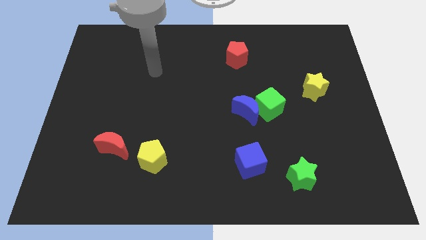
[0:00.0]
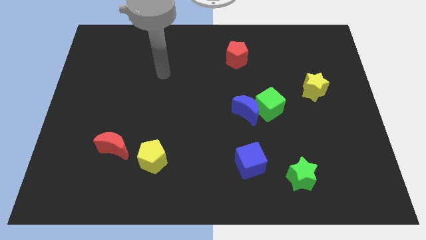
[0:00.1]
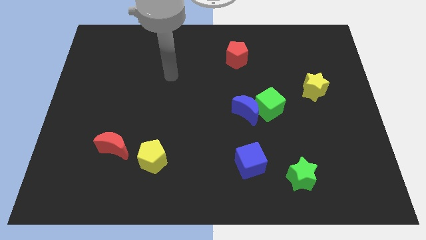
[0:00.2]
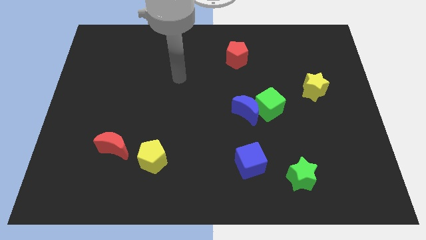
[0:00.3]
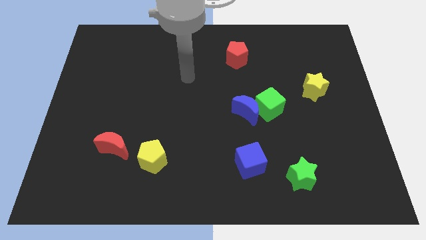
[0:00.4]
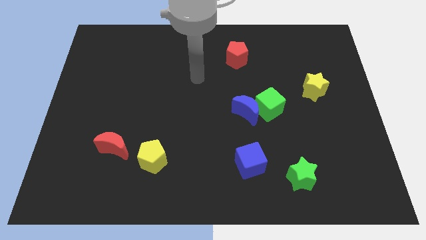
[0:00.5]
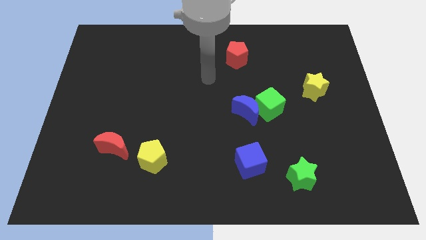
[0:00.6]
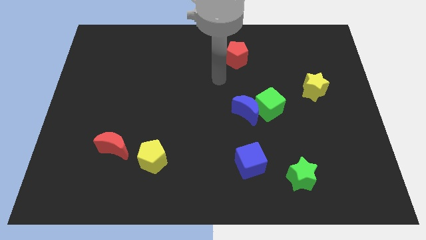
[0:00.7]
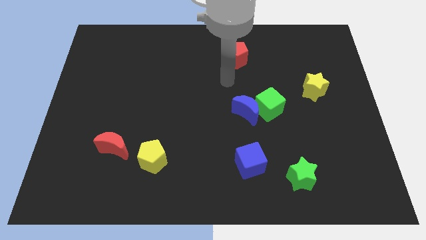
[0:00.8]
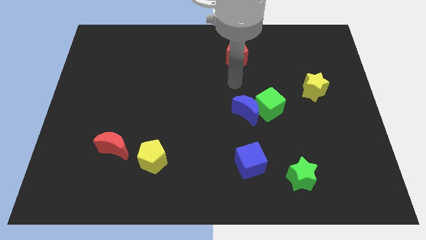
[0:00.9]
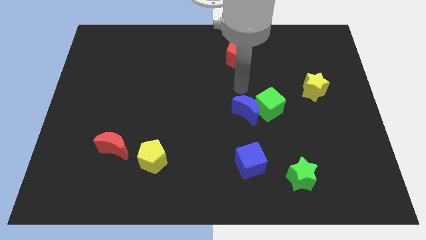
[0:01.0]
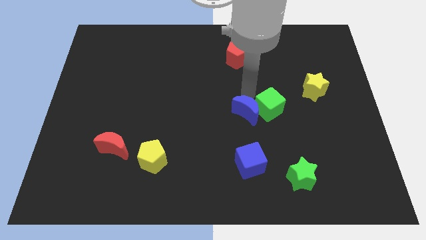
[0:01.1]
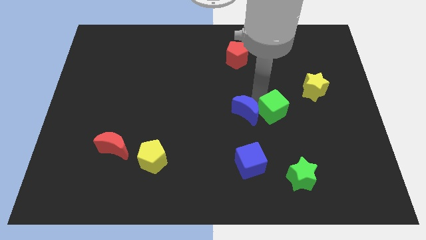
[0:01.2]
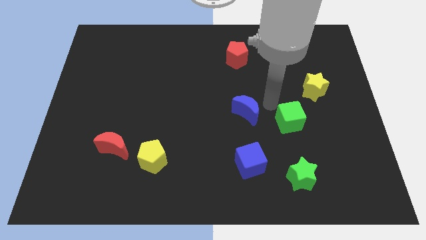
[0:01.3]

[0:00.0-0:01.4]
pull the blue moon apart from the green cube

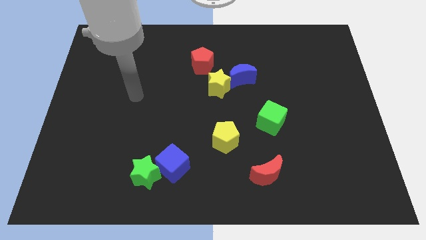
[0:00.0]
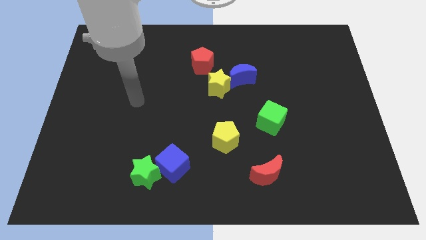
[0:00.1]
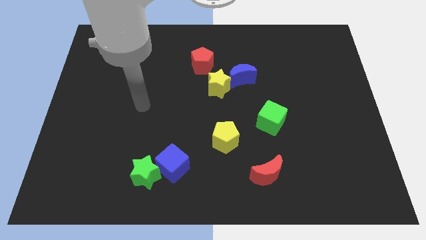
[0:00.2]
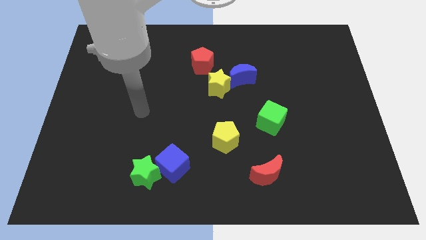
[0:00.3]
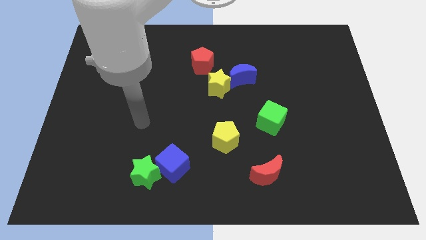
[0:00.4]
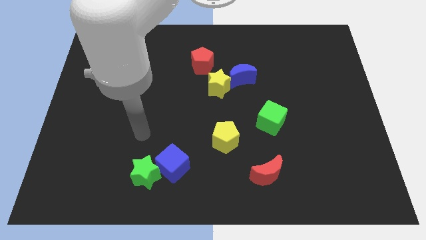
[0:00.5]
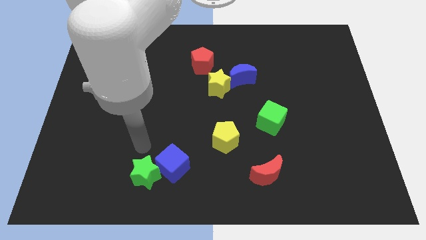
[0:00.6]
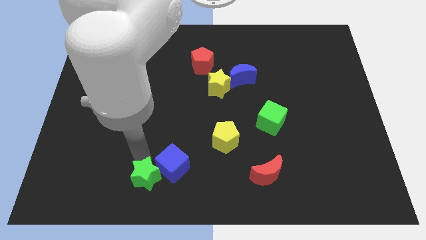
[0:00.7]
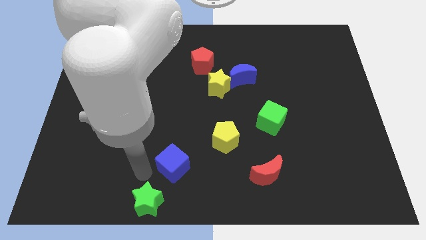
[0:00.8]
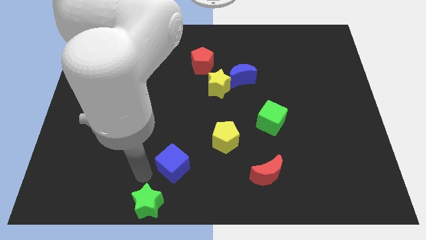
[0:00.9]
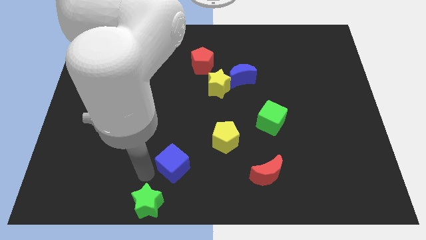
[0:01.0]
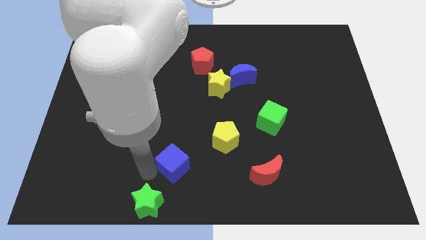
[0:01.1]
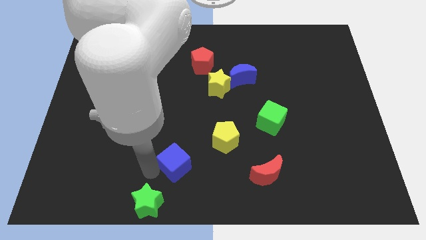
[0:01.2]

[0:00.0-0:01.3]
pull the blue cube apart from the green star

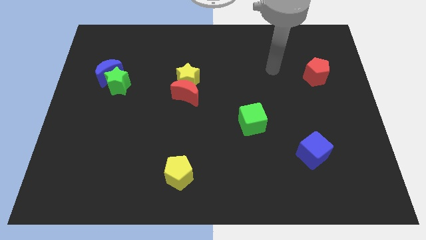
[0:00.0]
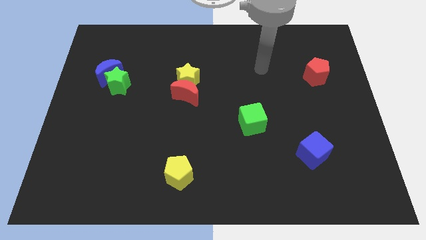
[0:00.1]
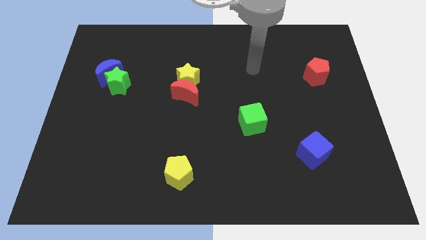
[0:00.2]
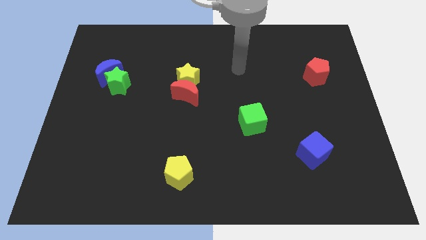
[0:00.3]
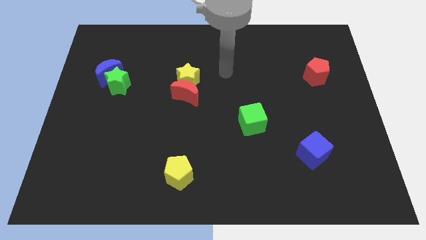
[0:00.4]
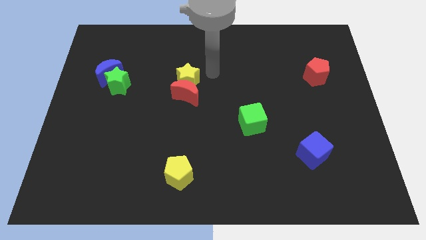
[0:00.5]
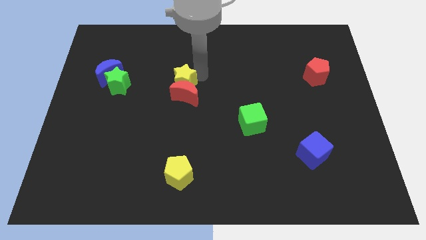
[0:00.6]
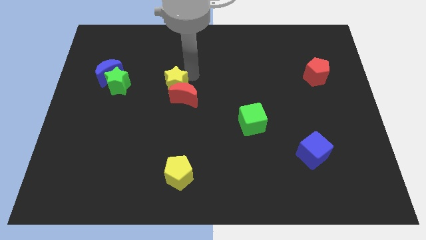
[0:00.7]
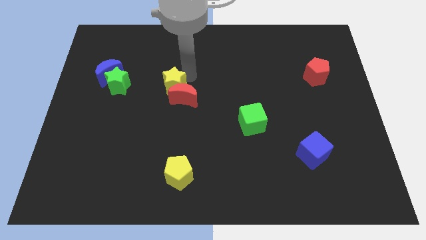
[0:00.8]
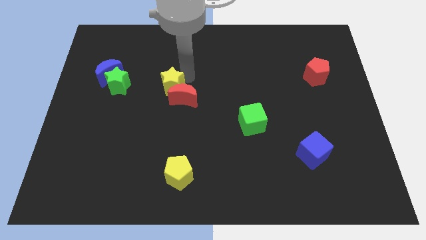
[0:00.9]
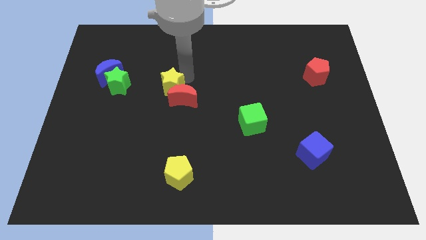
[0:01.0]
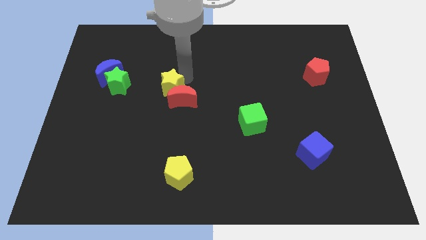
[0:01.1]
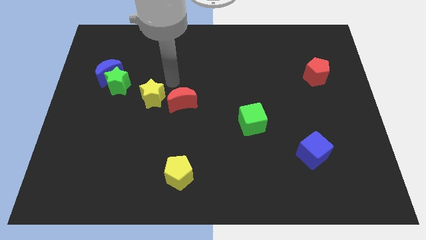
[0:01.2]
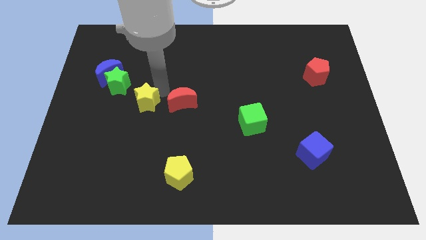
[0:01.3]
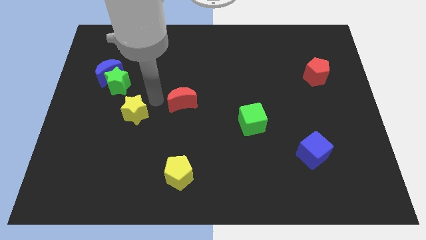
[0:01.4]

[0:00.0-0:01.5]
separate the red moon from the yellow star

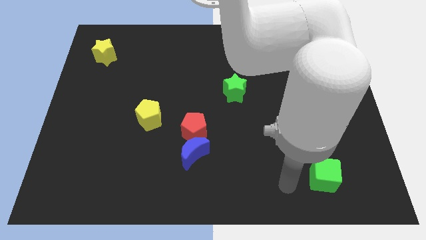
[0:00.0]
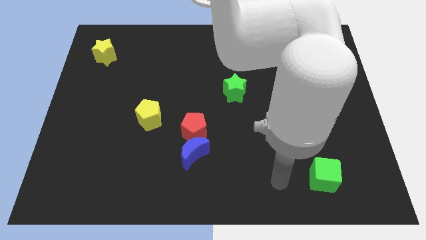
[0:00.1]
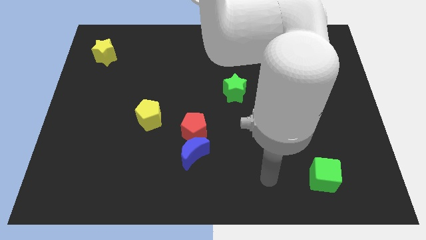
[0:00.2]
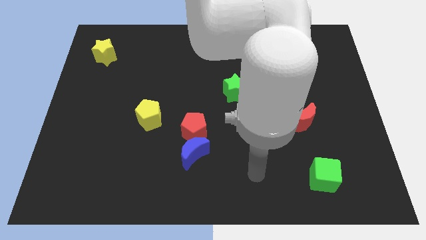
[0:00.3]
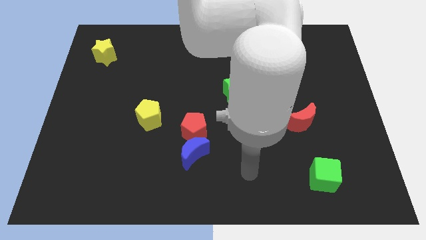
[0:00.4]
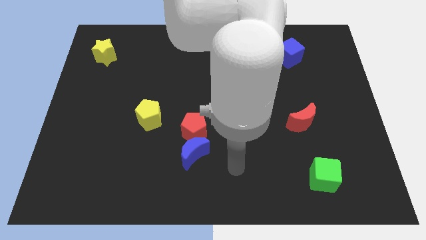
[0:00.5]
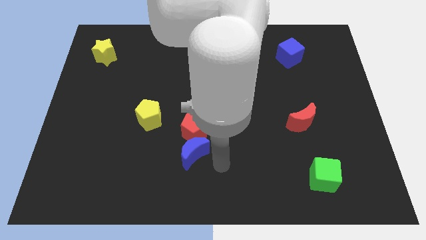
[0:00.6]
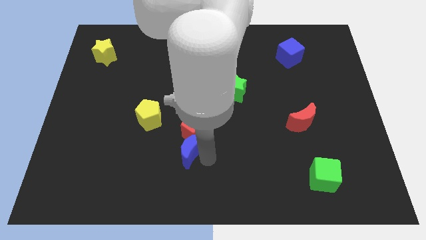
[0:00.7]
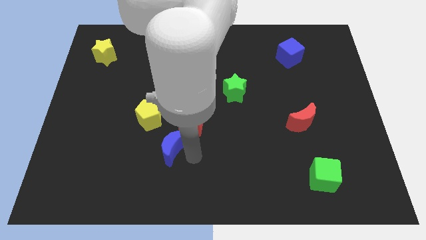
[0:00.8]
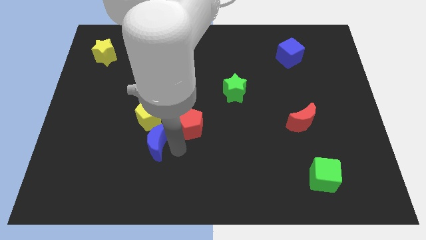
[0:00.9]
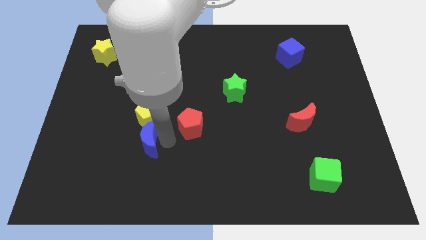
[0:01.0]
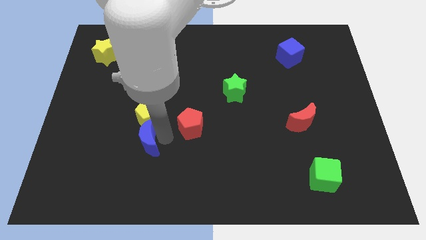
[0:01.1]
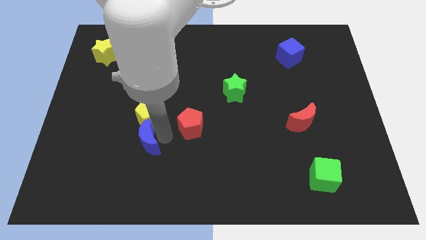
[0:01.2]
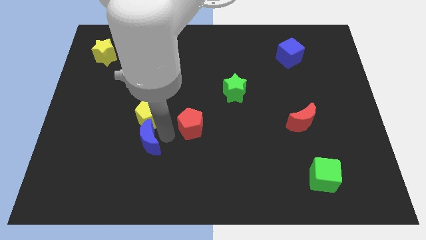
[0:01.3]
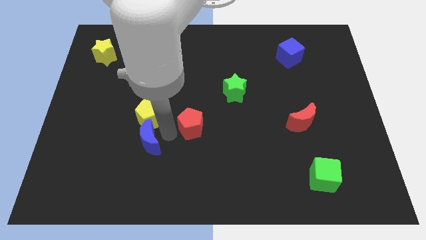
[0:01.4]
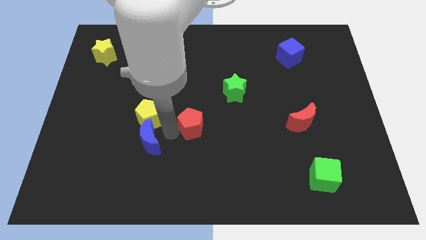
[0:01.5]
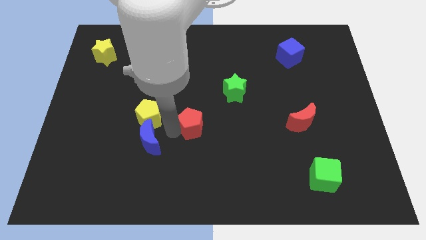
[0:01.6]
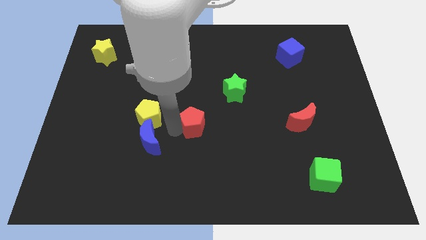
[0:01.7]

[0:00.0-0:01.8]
separate the red pentagon from the blue moon

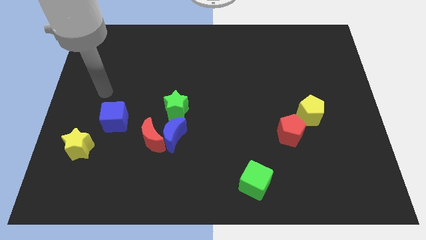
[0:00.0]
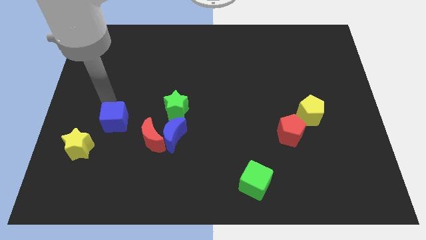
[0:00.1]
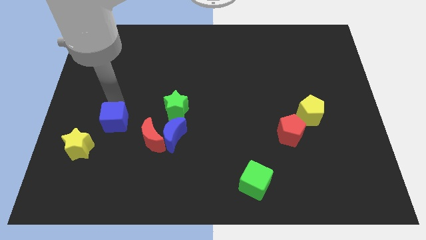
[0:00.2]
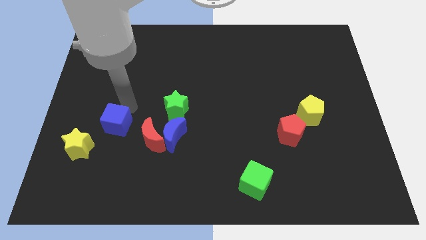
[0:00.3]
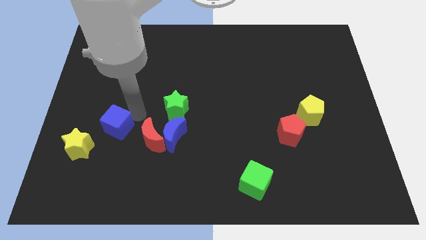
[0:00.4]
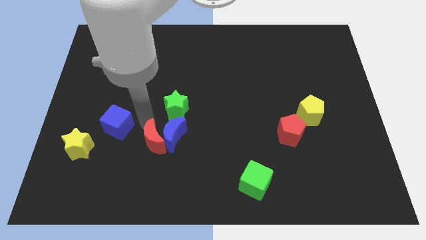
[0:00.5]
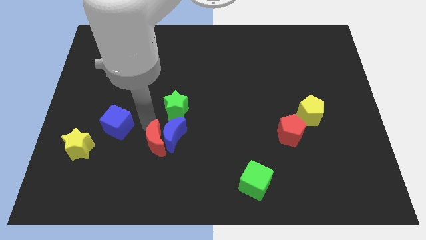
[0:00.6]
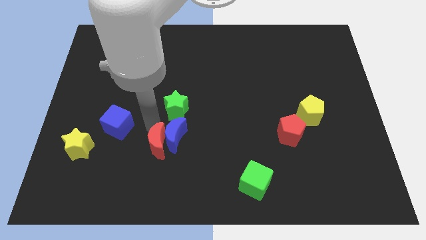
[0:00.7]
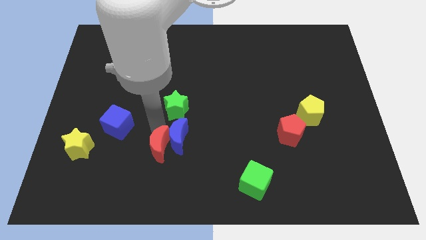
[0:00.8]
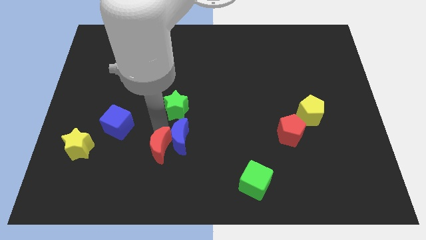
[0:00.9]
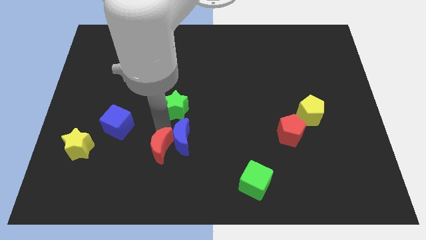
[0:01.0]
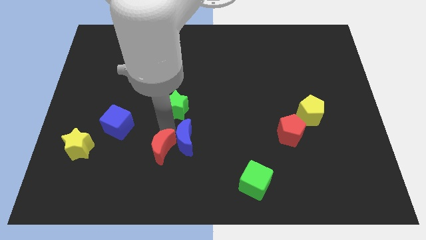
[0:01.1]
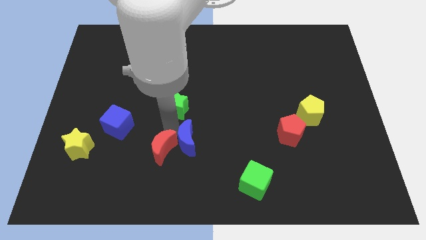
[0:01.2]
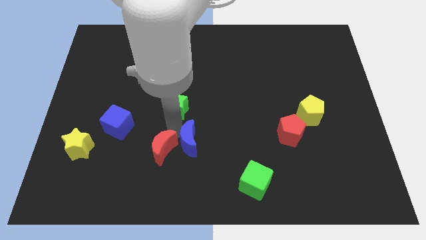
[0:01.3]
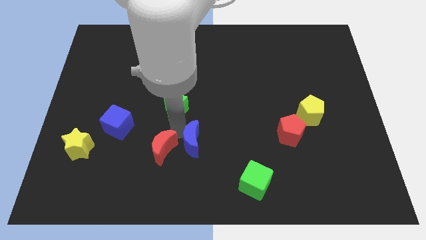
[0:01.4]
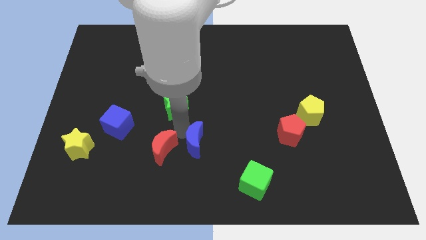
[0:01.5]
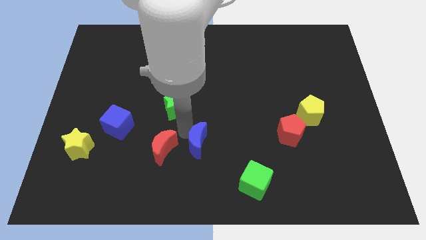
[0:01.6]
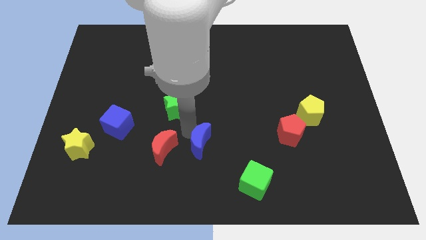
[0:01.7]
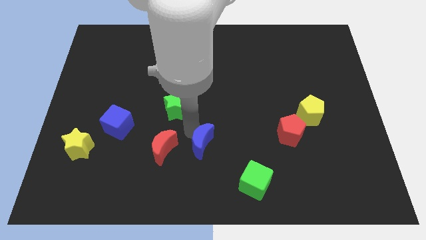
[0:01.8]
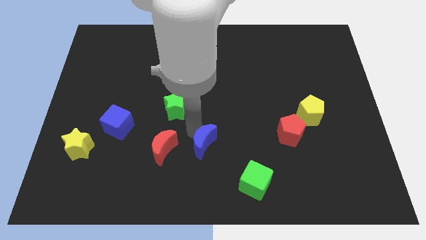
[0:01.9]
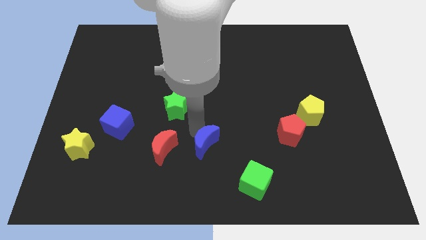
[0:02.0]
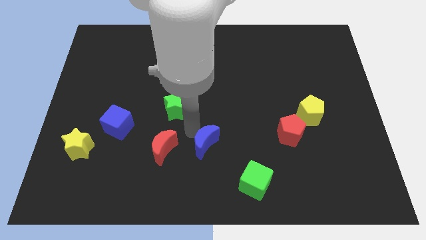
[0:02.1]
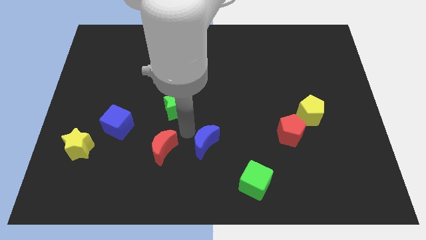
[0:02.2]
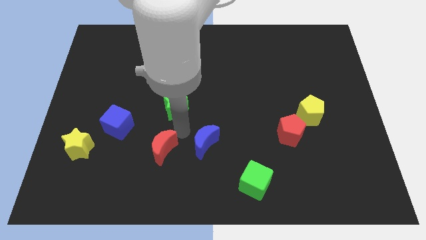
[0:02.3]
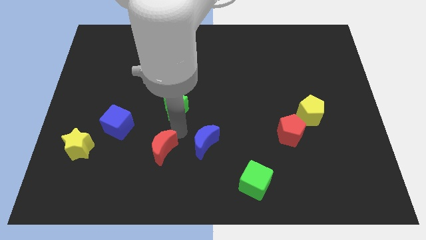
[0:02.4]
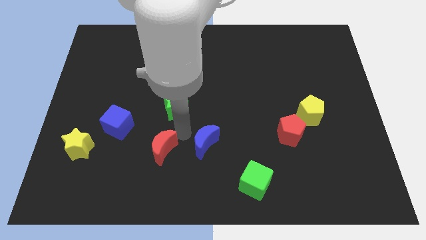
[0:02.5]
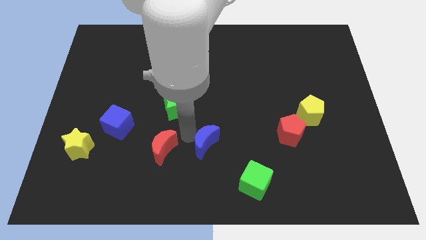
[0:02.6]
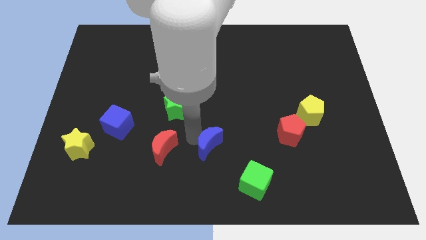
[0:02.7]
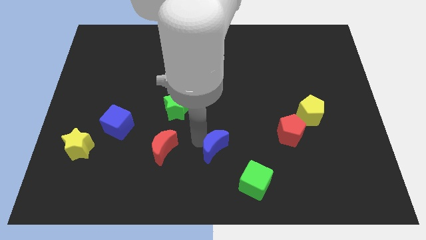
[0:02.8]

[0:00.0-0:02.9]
move the blue moon away from the red moon and green star

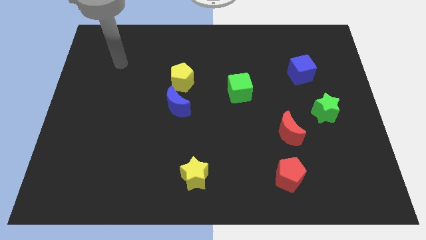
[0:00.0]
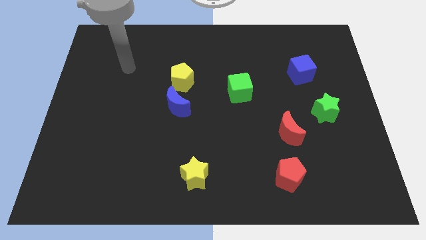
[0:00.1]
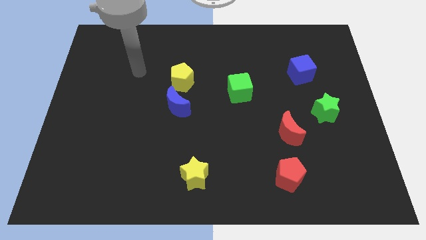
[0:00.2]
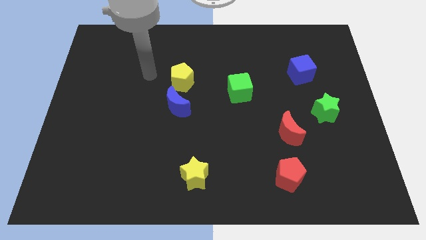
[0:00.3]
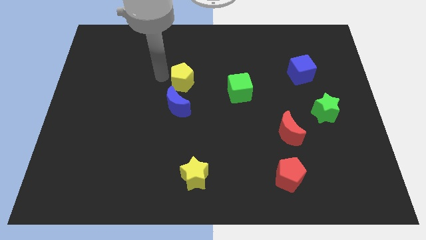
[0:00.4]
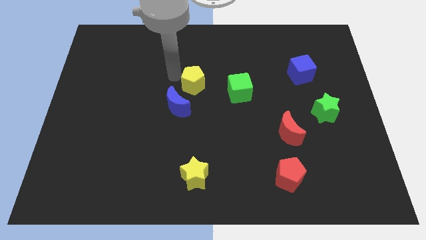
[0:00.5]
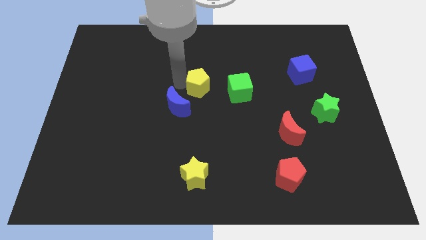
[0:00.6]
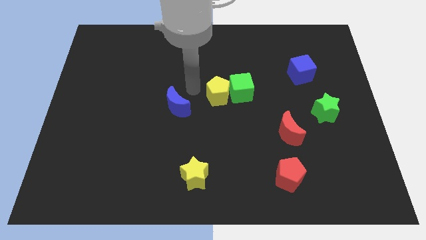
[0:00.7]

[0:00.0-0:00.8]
move the blue moon away from the yellow pentagon
